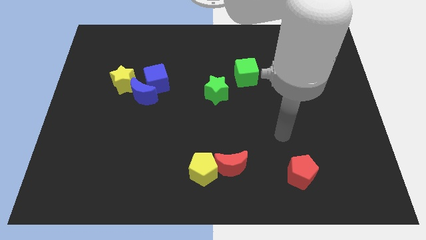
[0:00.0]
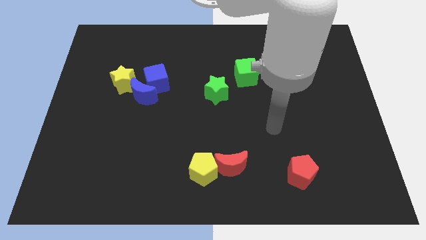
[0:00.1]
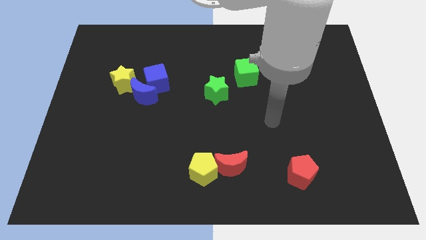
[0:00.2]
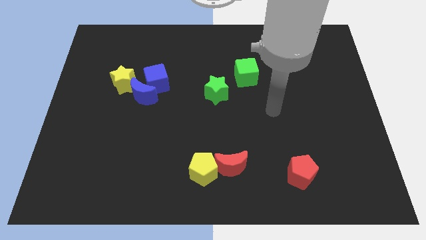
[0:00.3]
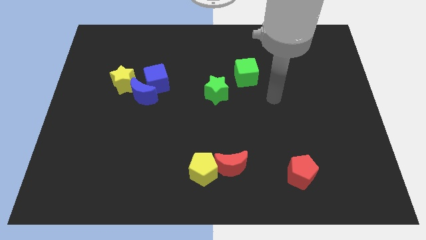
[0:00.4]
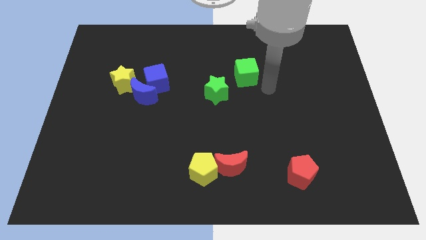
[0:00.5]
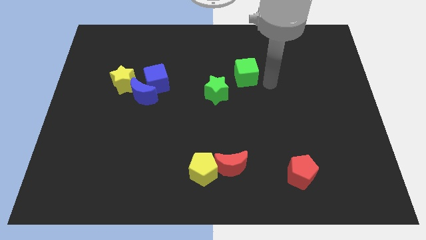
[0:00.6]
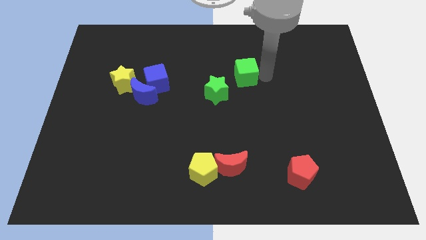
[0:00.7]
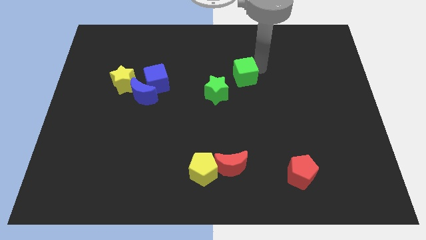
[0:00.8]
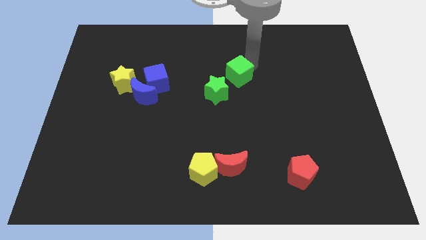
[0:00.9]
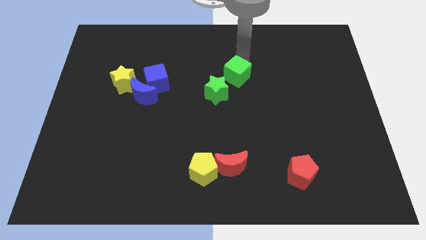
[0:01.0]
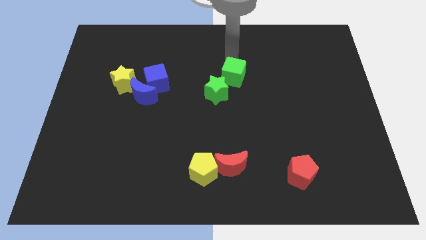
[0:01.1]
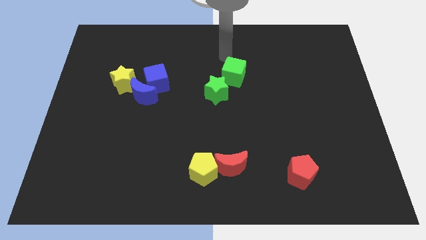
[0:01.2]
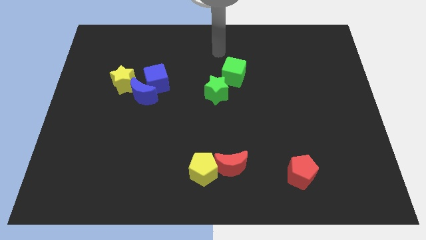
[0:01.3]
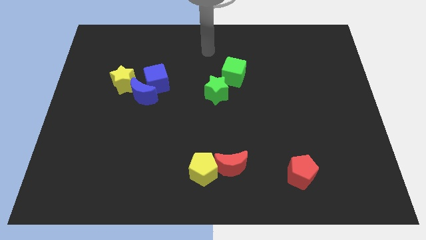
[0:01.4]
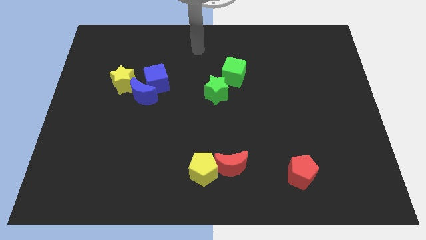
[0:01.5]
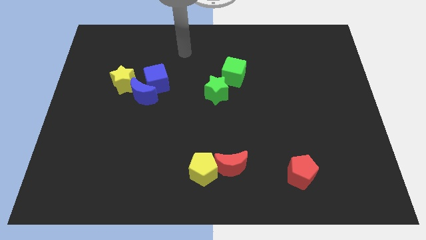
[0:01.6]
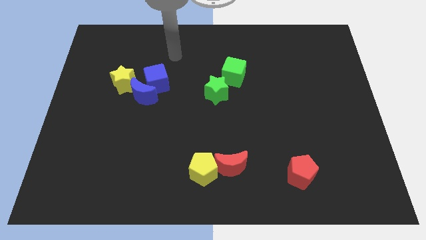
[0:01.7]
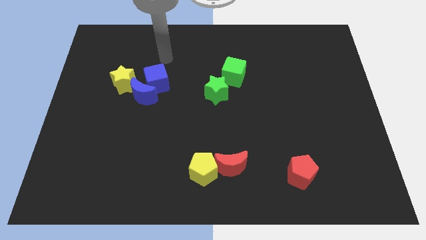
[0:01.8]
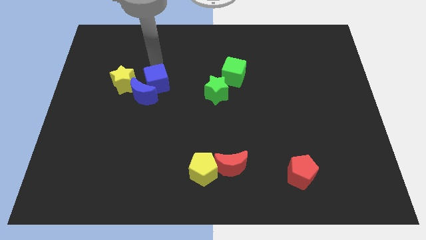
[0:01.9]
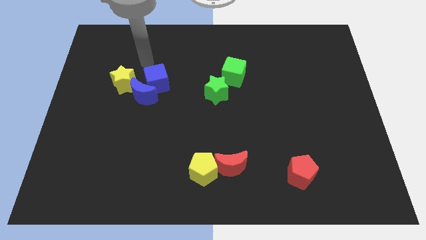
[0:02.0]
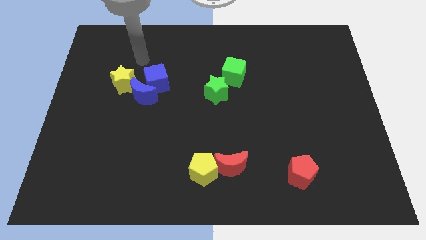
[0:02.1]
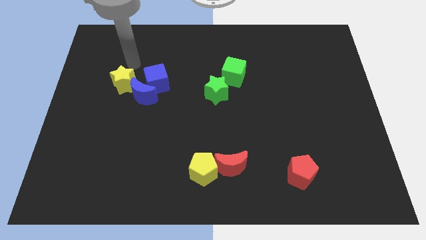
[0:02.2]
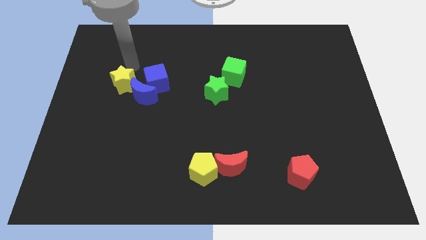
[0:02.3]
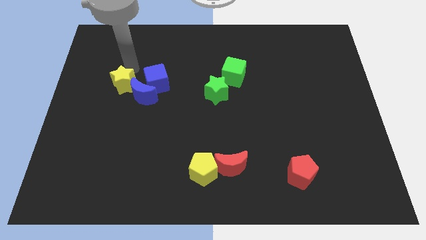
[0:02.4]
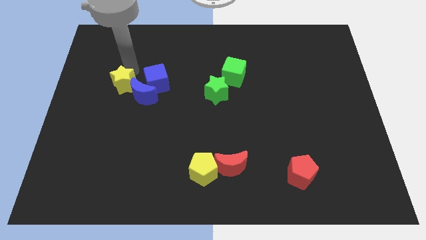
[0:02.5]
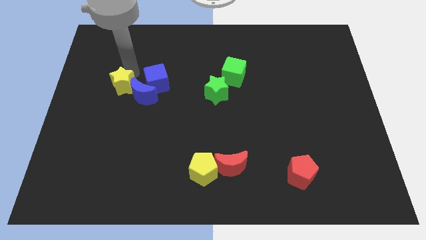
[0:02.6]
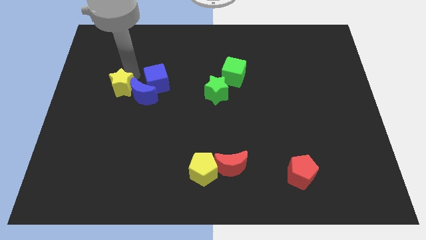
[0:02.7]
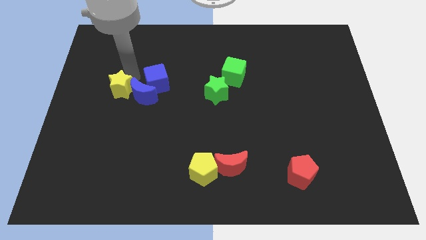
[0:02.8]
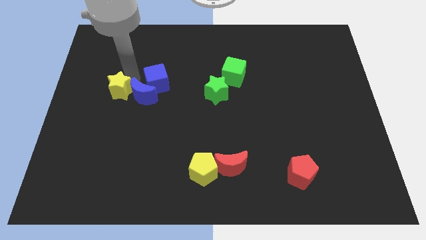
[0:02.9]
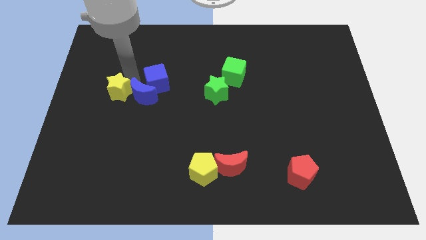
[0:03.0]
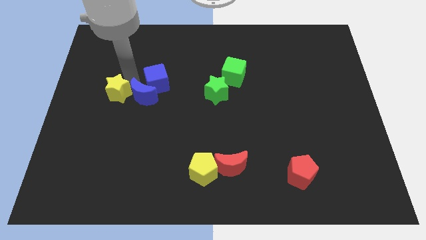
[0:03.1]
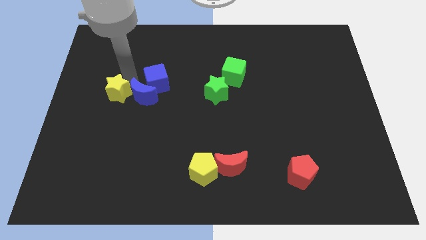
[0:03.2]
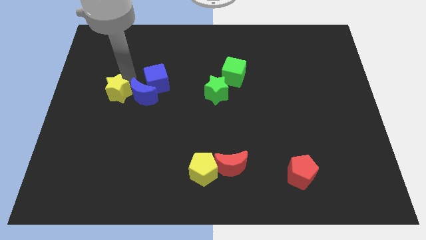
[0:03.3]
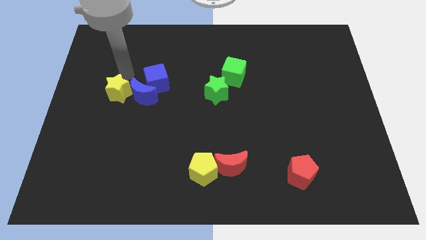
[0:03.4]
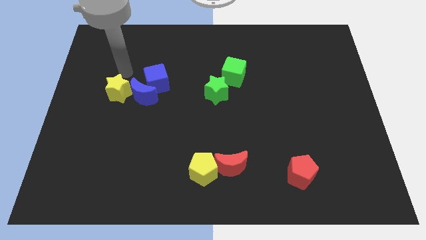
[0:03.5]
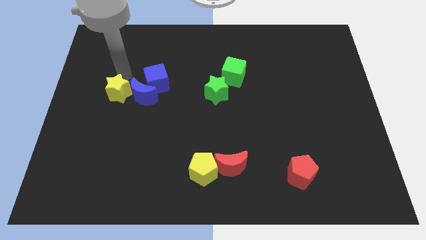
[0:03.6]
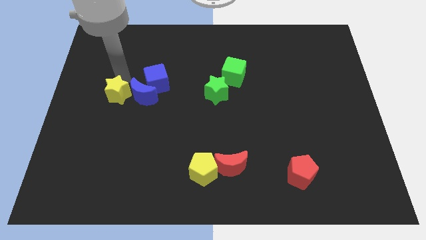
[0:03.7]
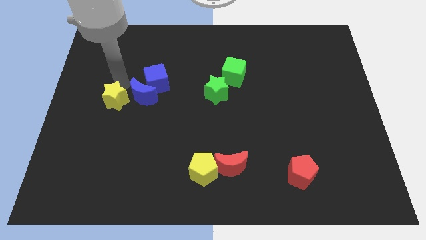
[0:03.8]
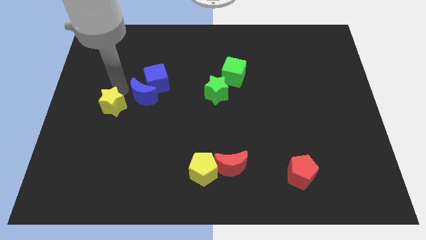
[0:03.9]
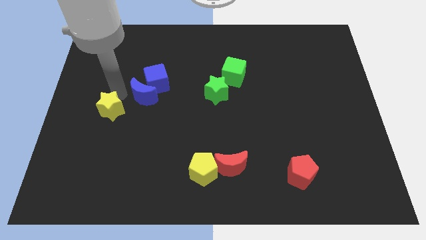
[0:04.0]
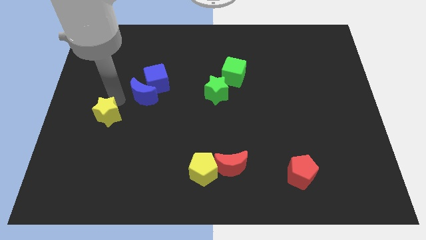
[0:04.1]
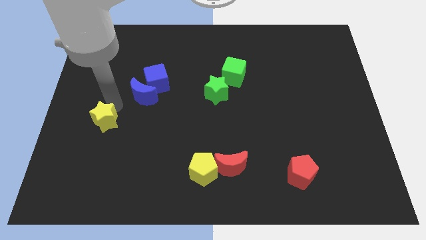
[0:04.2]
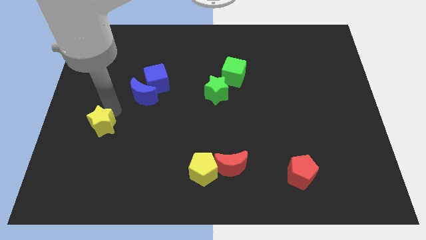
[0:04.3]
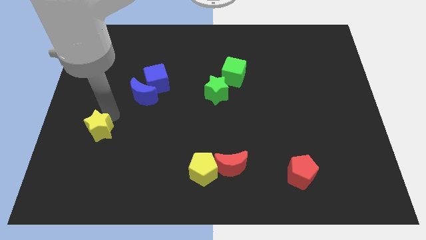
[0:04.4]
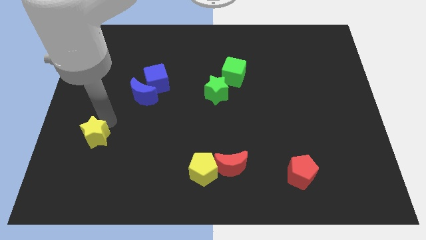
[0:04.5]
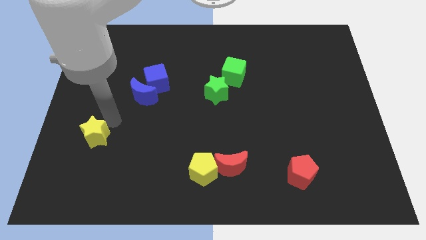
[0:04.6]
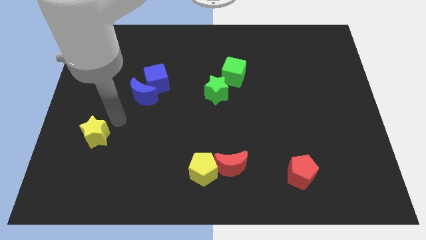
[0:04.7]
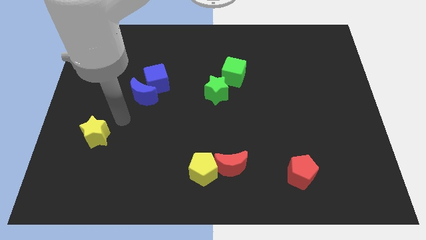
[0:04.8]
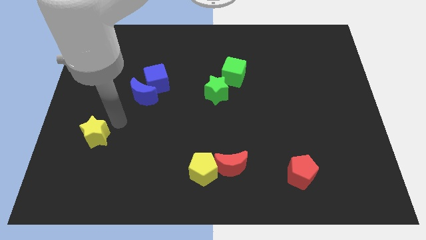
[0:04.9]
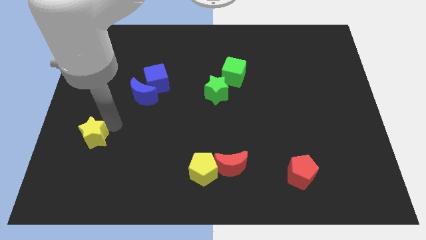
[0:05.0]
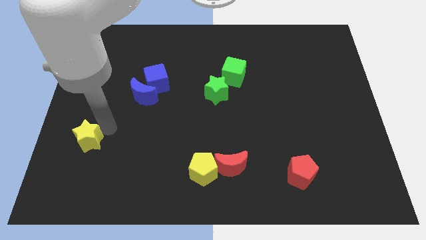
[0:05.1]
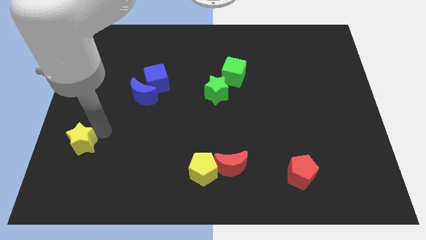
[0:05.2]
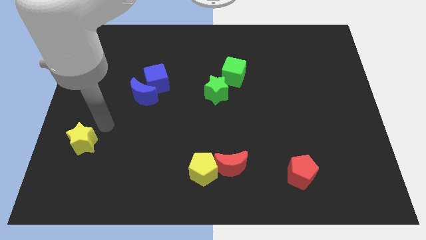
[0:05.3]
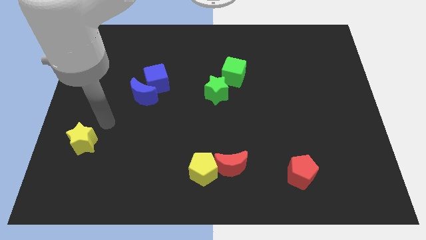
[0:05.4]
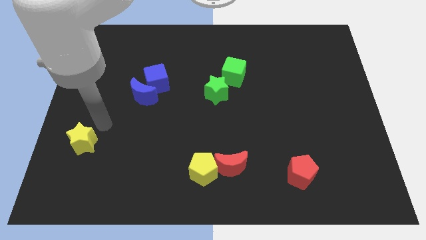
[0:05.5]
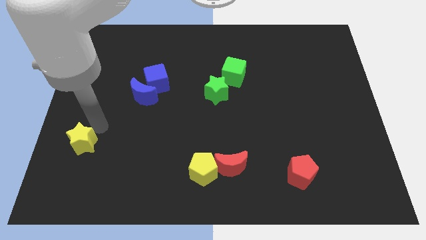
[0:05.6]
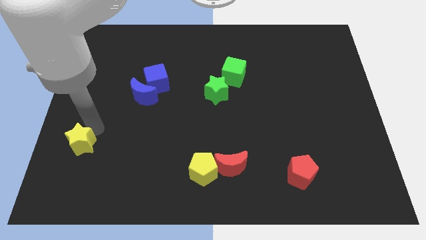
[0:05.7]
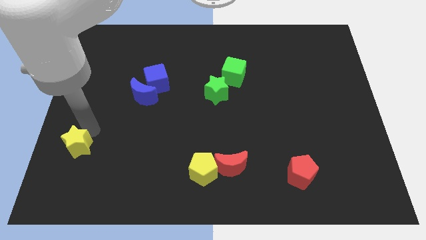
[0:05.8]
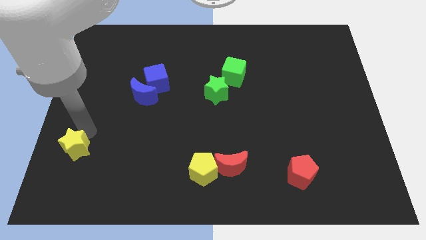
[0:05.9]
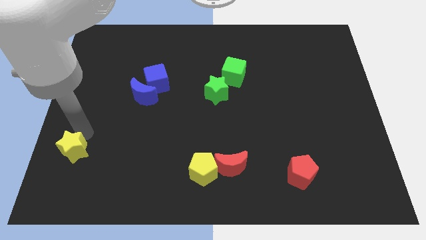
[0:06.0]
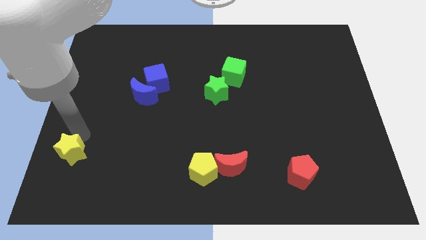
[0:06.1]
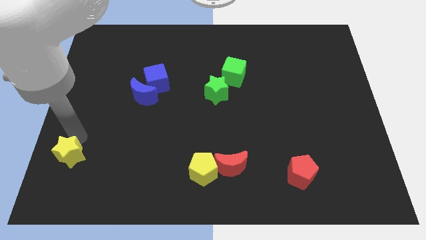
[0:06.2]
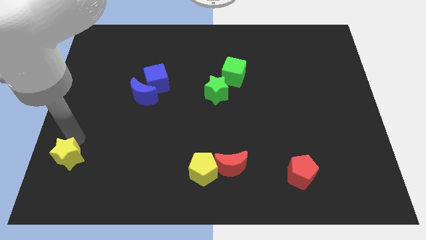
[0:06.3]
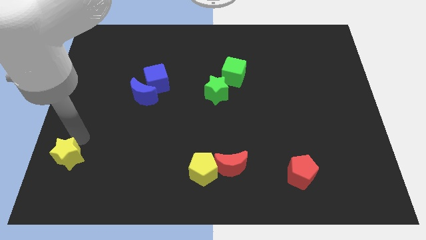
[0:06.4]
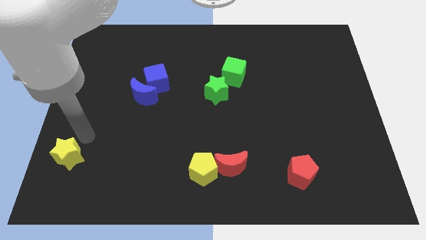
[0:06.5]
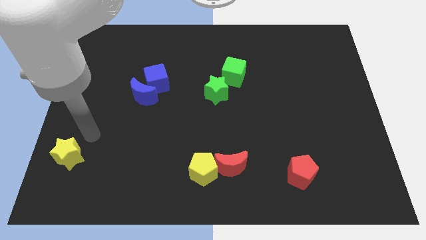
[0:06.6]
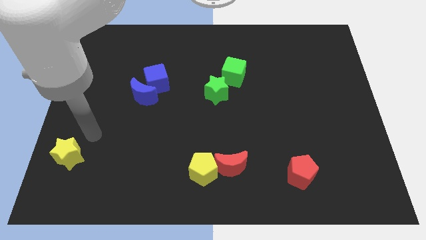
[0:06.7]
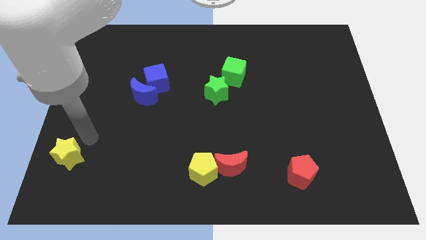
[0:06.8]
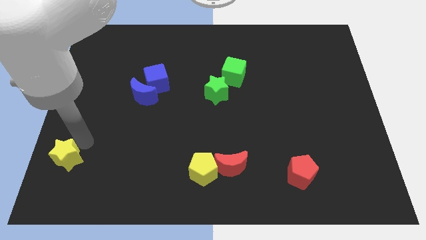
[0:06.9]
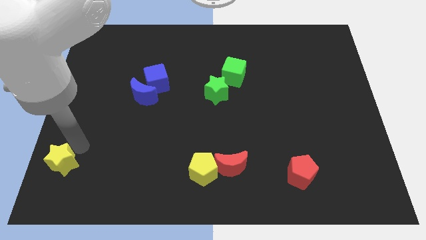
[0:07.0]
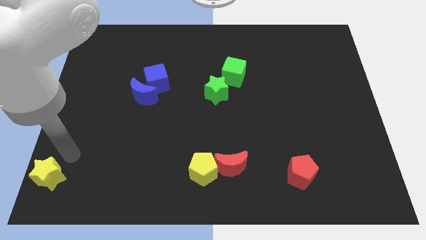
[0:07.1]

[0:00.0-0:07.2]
put the yellow star to the bottom left of the board

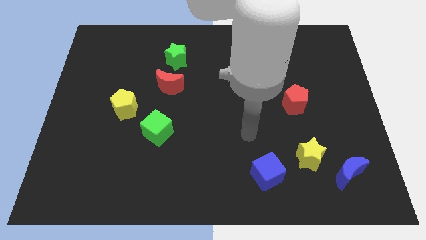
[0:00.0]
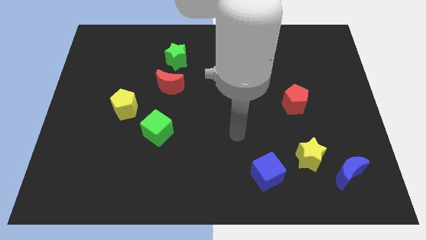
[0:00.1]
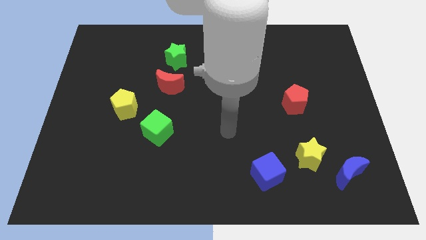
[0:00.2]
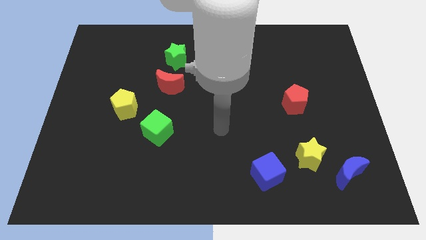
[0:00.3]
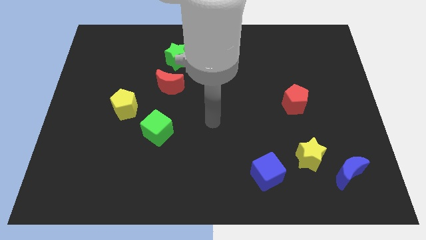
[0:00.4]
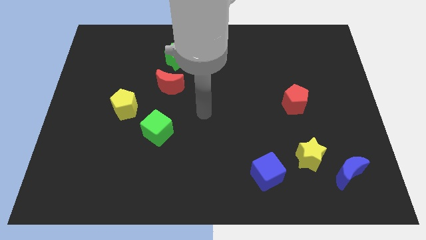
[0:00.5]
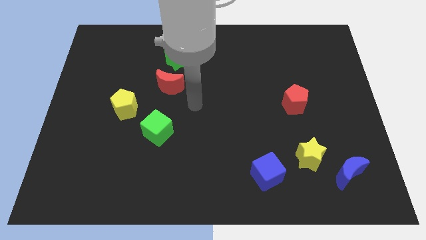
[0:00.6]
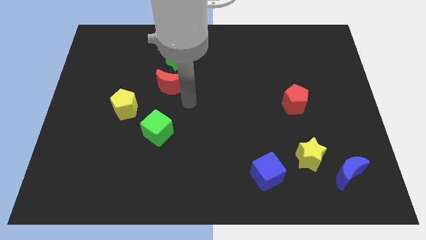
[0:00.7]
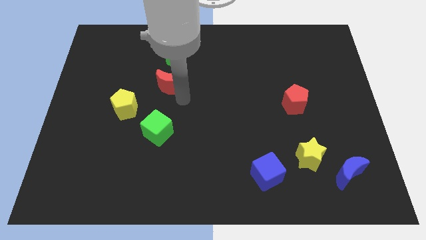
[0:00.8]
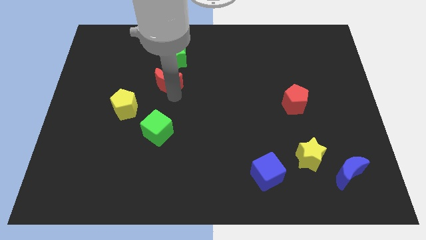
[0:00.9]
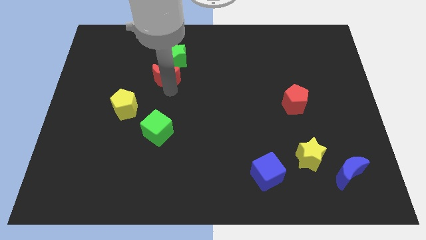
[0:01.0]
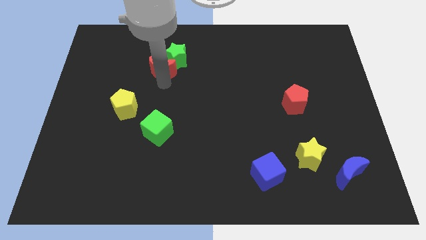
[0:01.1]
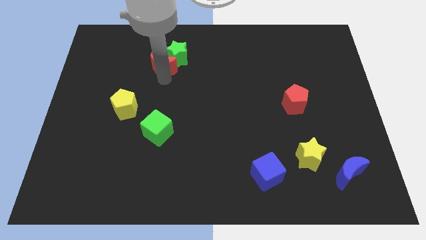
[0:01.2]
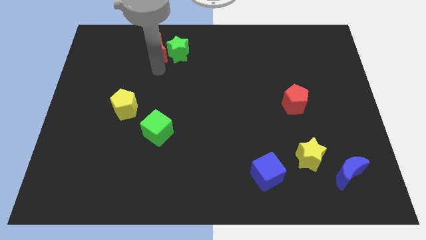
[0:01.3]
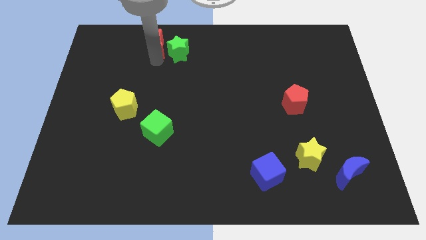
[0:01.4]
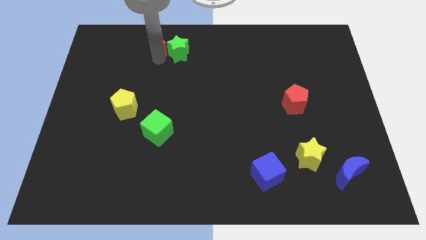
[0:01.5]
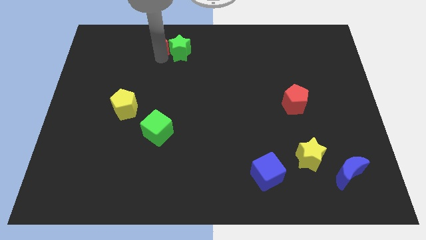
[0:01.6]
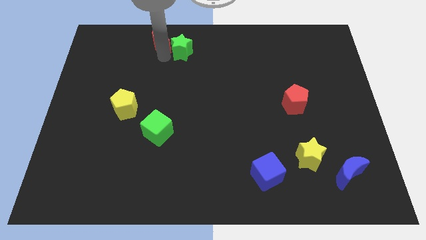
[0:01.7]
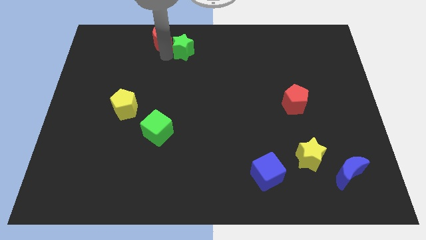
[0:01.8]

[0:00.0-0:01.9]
push the green star to the towards your base
